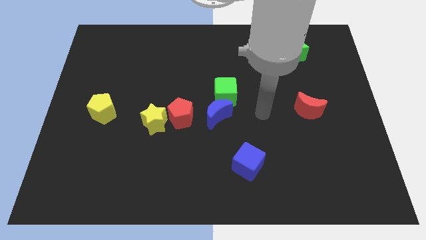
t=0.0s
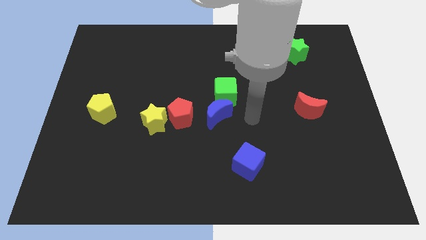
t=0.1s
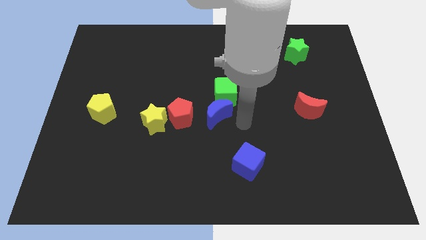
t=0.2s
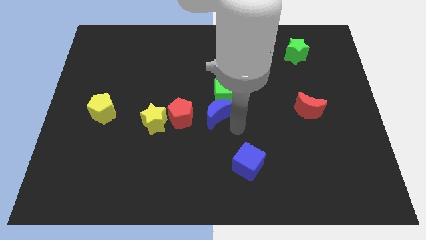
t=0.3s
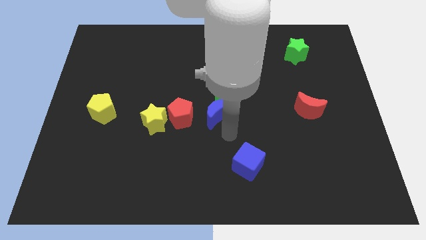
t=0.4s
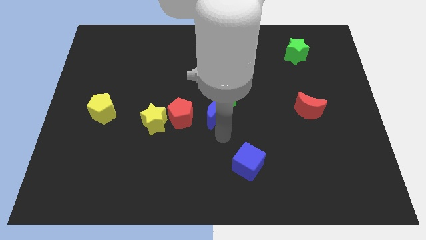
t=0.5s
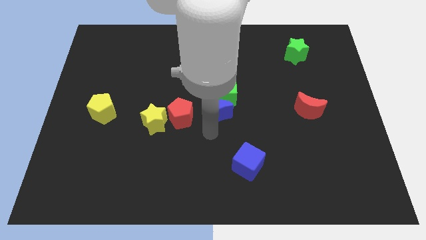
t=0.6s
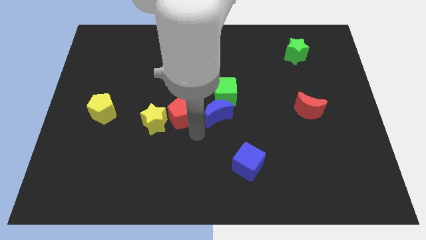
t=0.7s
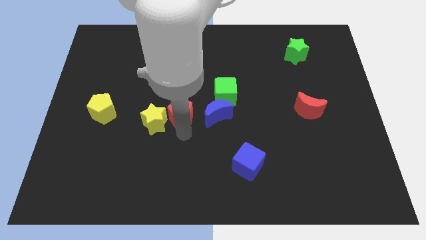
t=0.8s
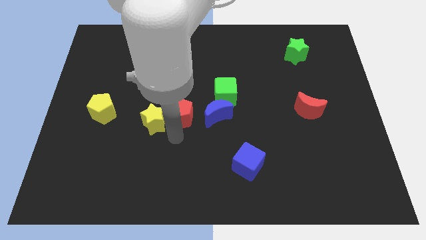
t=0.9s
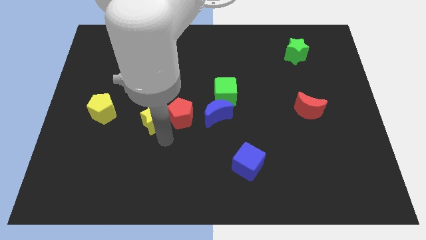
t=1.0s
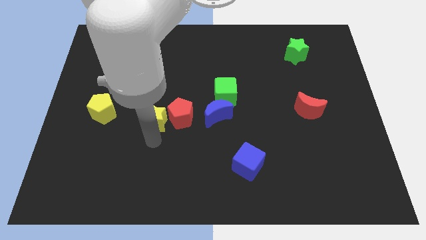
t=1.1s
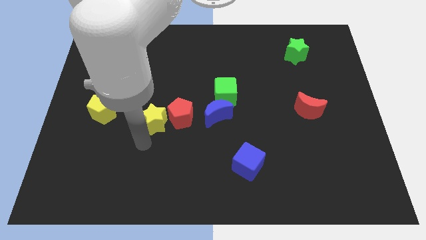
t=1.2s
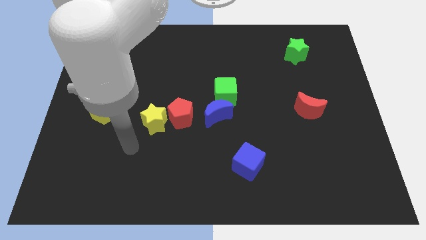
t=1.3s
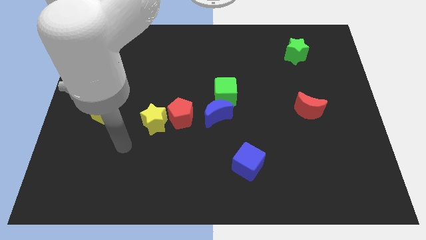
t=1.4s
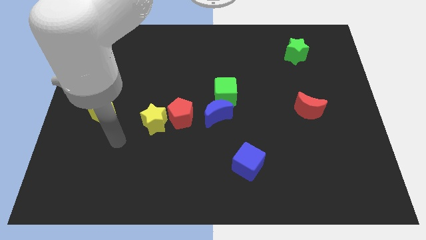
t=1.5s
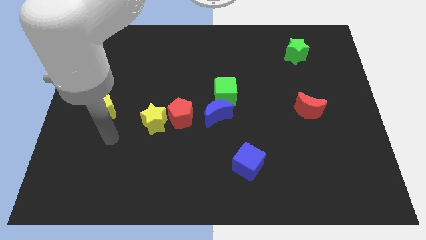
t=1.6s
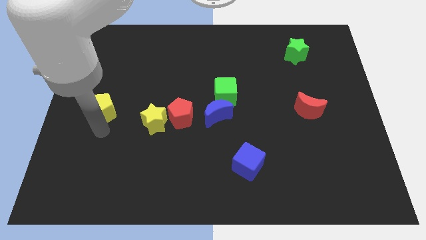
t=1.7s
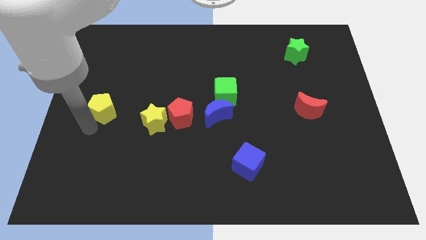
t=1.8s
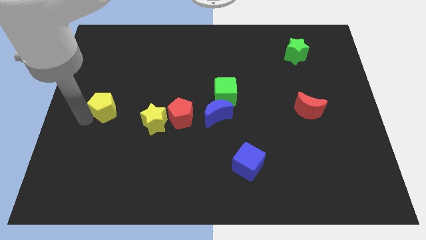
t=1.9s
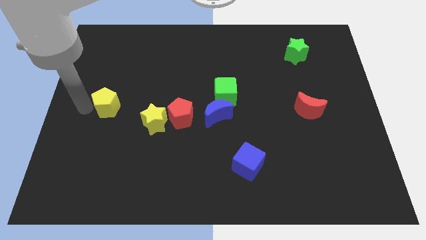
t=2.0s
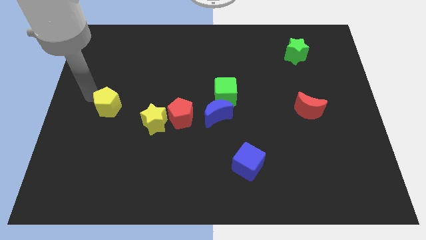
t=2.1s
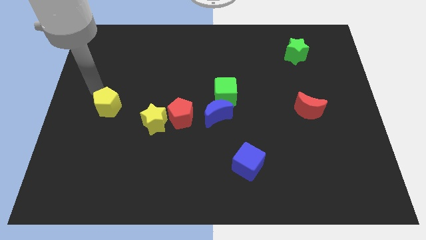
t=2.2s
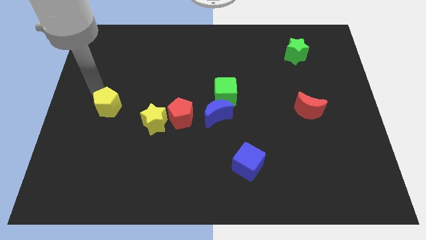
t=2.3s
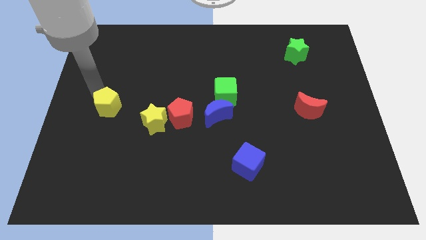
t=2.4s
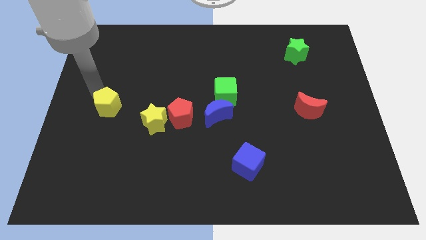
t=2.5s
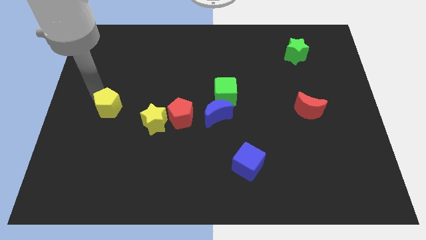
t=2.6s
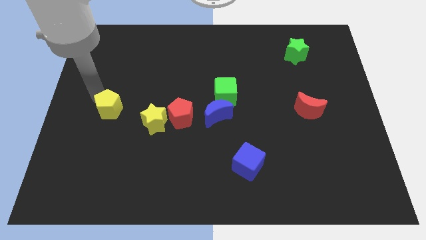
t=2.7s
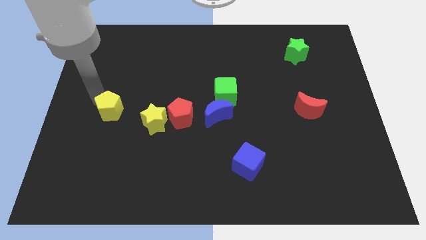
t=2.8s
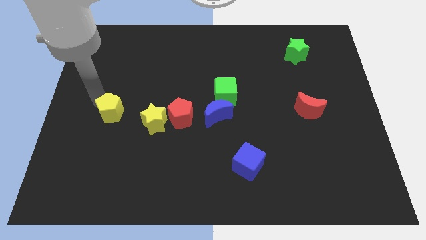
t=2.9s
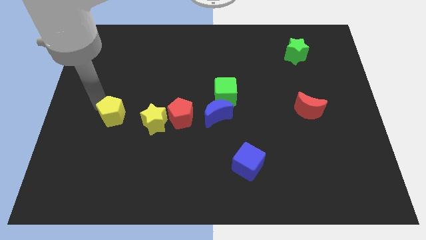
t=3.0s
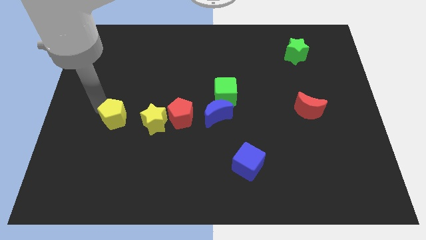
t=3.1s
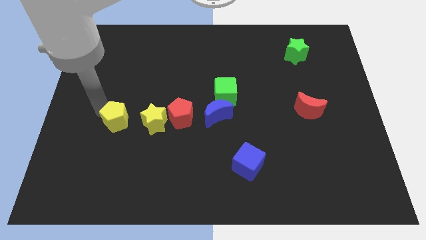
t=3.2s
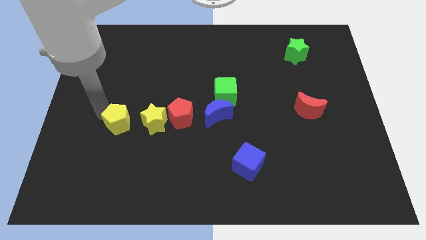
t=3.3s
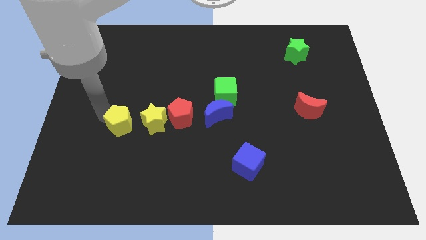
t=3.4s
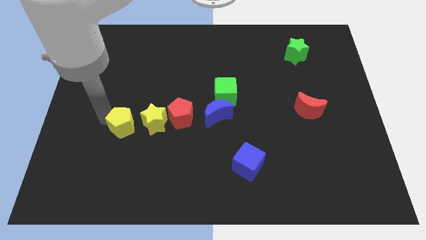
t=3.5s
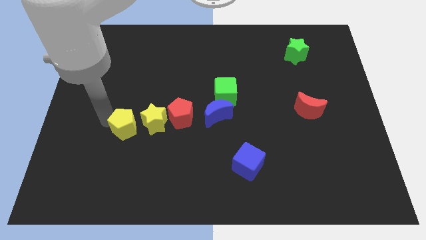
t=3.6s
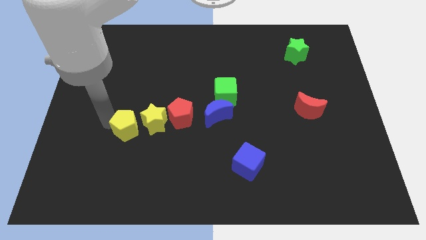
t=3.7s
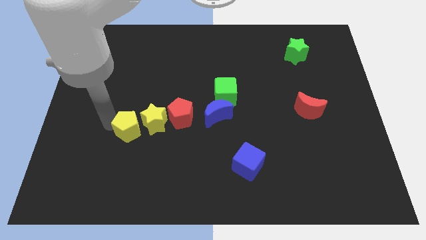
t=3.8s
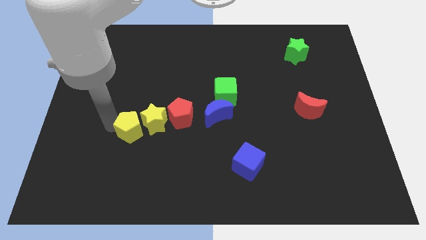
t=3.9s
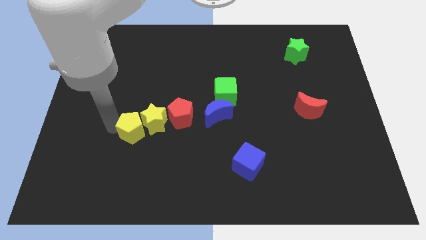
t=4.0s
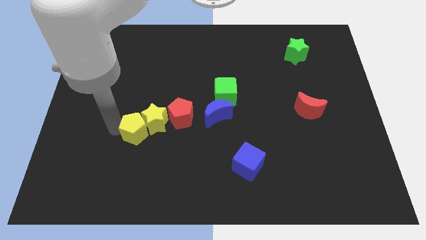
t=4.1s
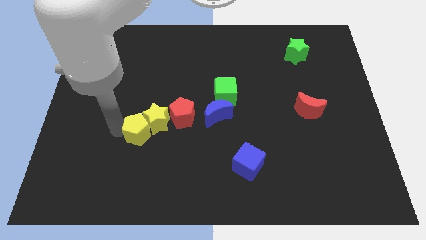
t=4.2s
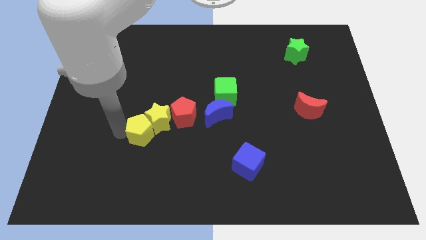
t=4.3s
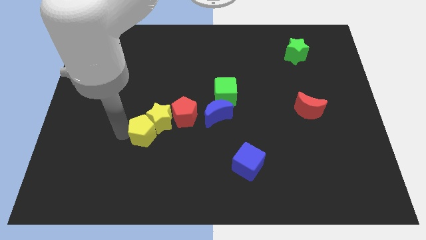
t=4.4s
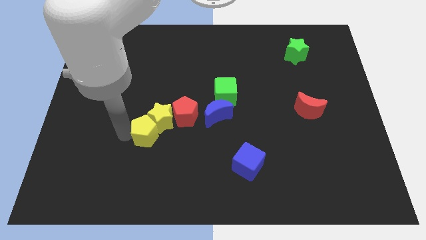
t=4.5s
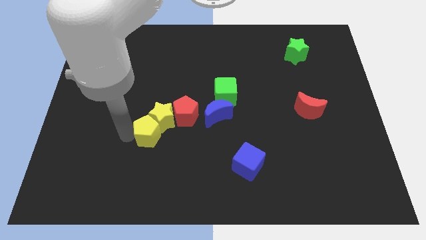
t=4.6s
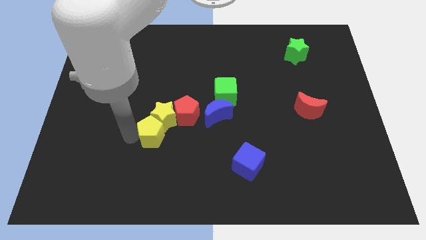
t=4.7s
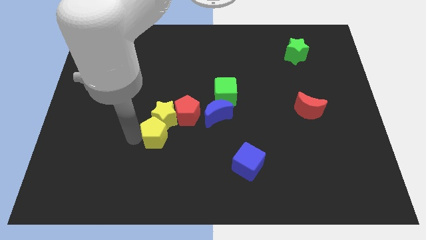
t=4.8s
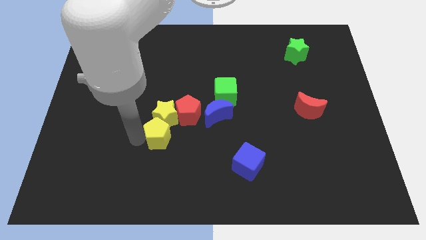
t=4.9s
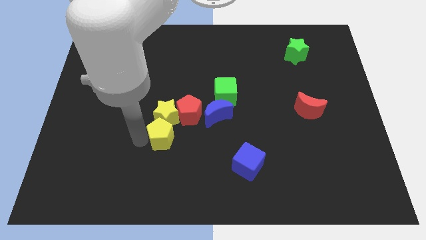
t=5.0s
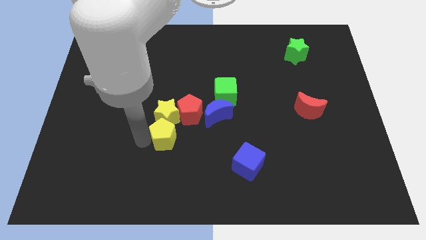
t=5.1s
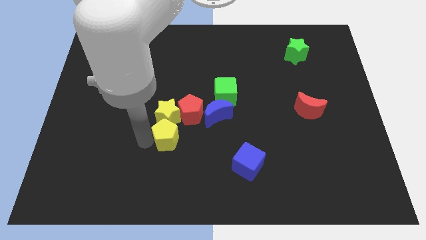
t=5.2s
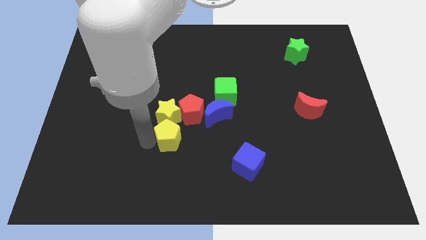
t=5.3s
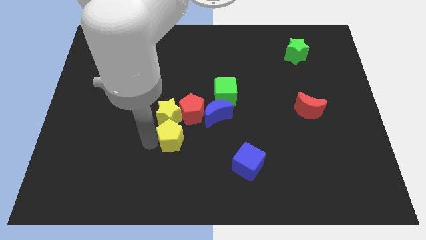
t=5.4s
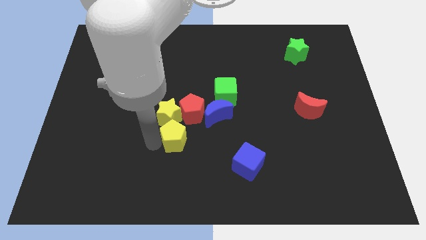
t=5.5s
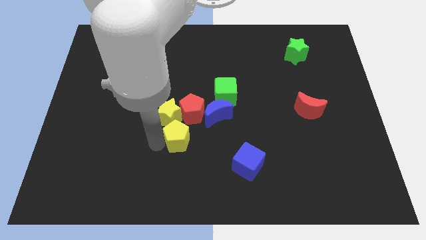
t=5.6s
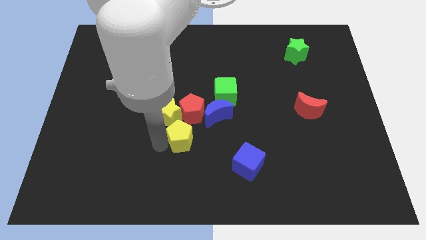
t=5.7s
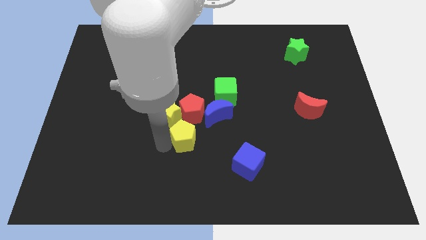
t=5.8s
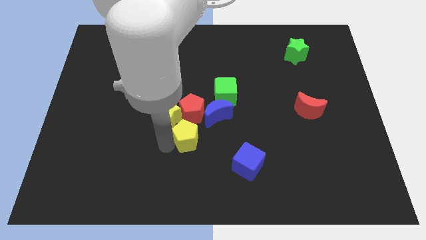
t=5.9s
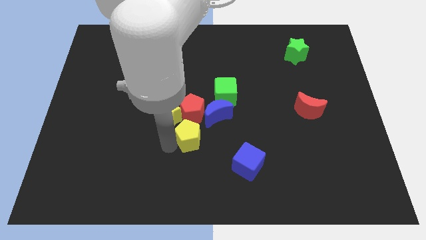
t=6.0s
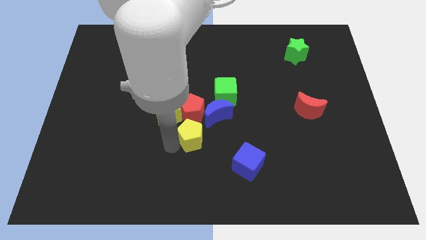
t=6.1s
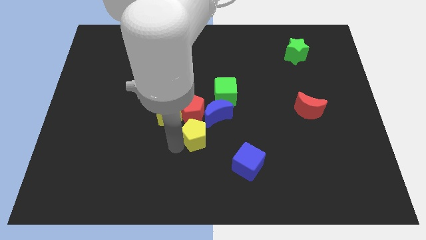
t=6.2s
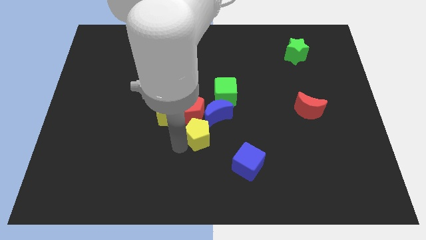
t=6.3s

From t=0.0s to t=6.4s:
push the yellow pentagon to the right

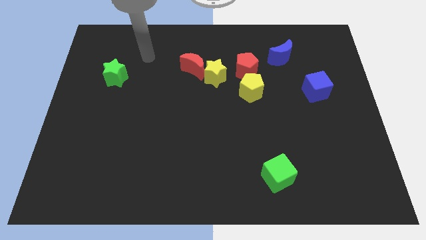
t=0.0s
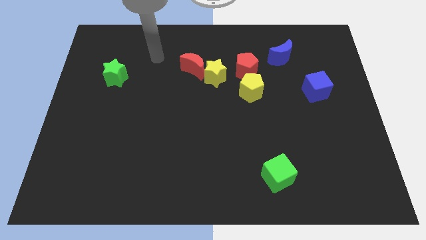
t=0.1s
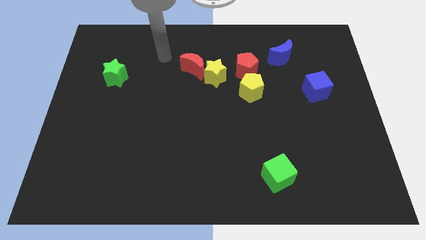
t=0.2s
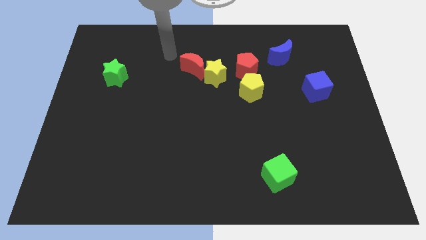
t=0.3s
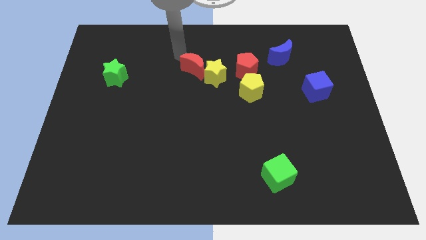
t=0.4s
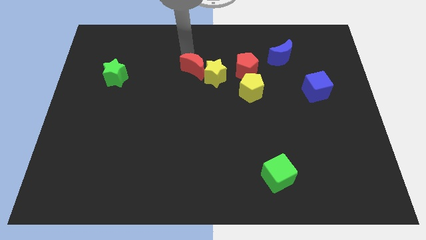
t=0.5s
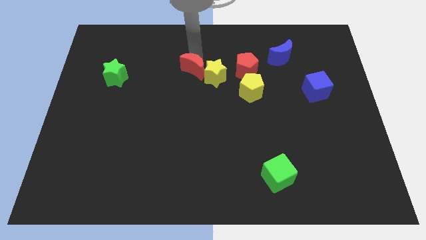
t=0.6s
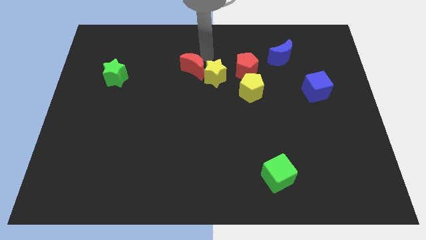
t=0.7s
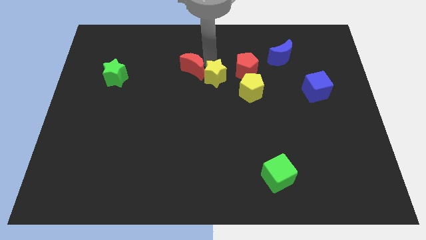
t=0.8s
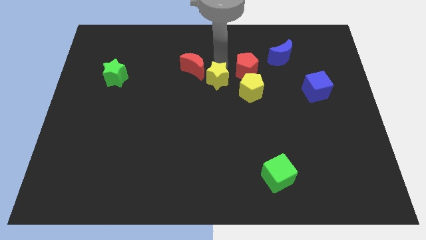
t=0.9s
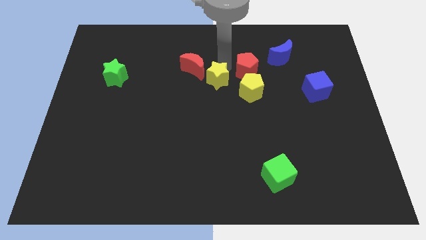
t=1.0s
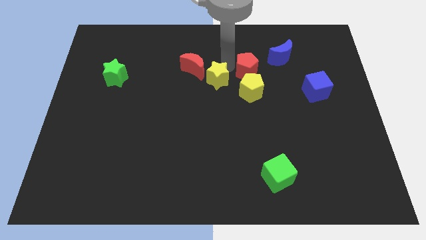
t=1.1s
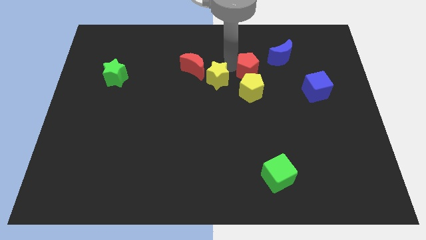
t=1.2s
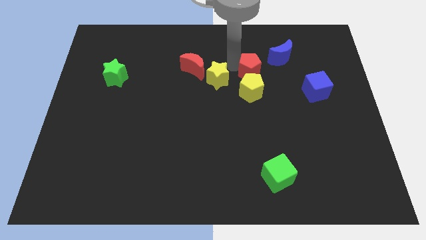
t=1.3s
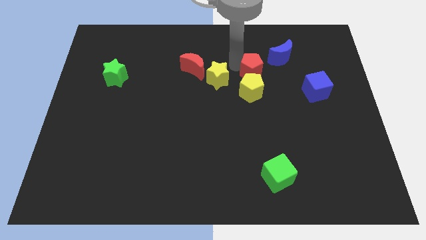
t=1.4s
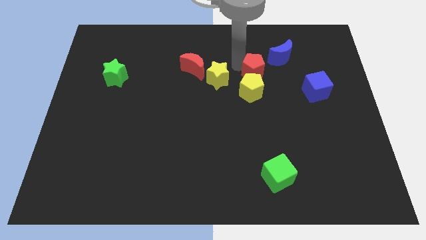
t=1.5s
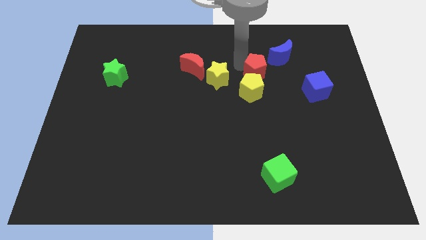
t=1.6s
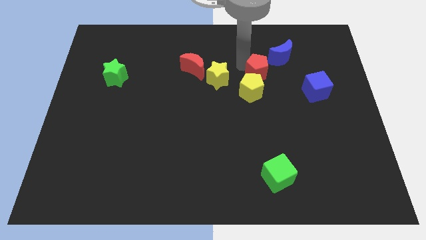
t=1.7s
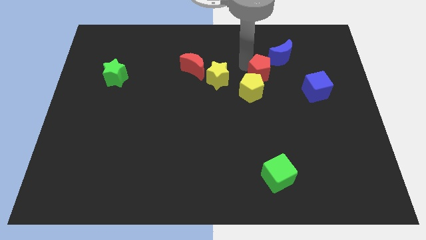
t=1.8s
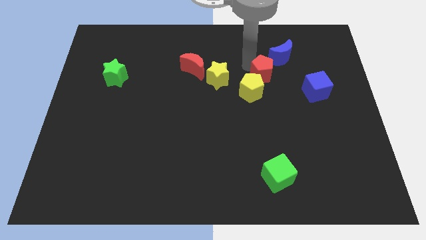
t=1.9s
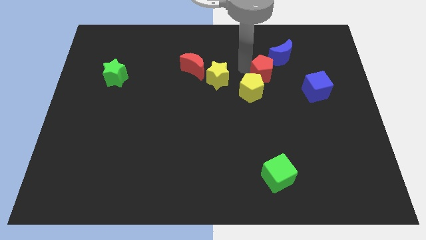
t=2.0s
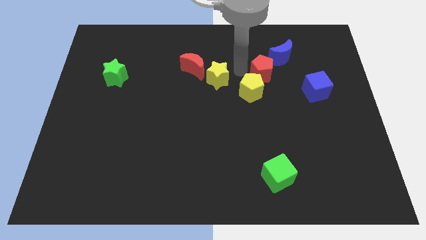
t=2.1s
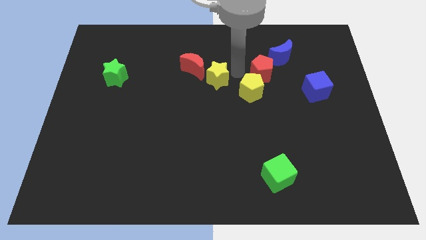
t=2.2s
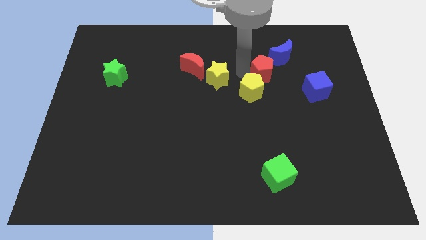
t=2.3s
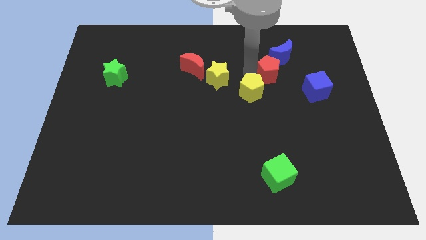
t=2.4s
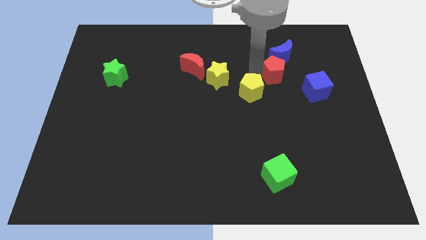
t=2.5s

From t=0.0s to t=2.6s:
slide the red pentagon right a little
